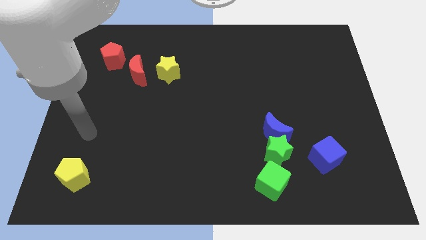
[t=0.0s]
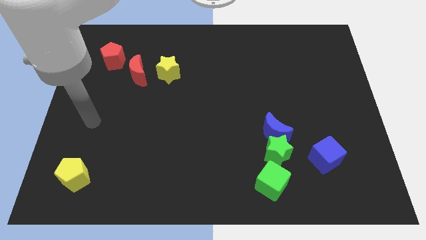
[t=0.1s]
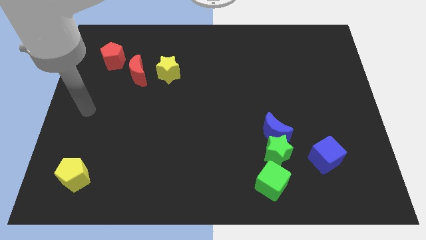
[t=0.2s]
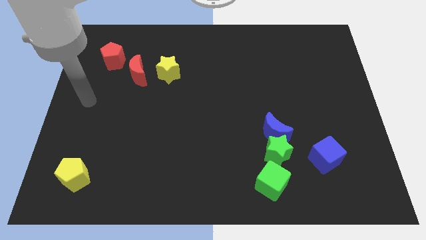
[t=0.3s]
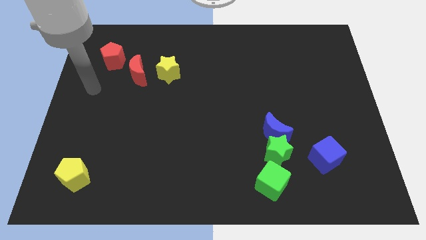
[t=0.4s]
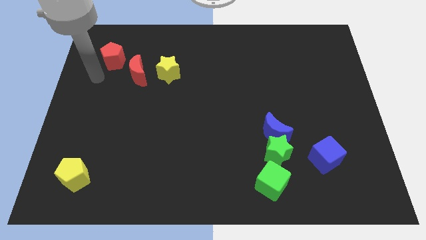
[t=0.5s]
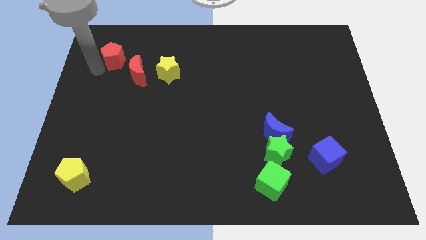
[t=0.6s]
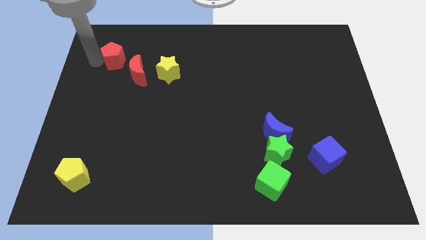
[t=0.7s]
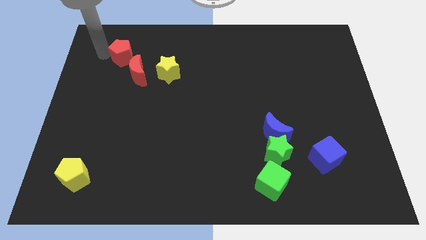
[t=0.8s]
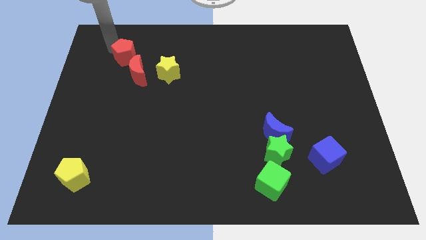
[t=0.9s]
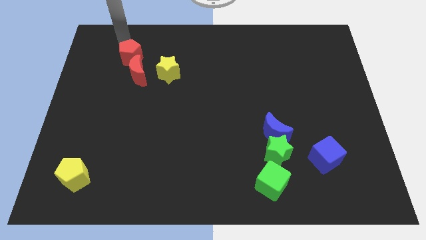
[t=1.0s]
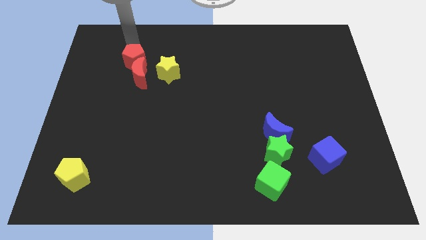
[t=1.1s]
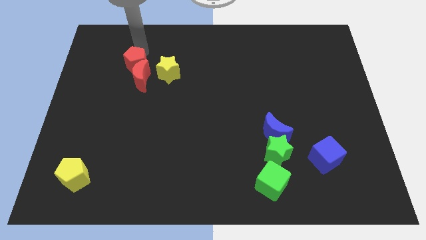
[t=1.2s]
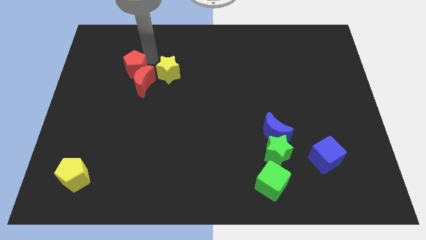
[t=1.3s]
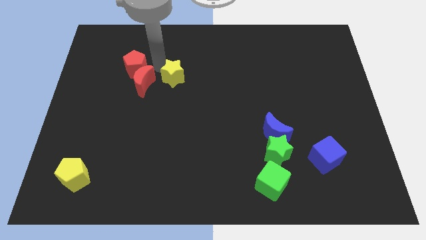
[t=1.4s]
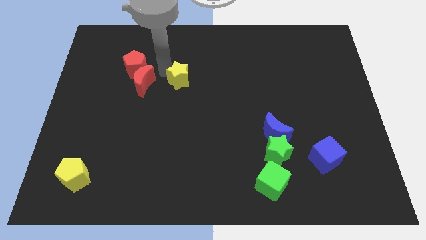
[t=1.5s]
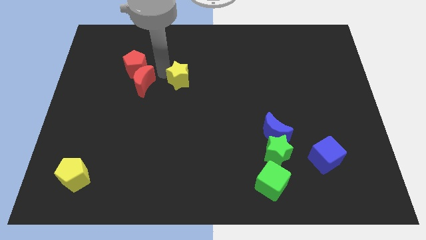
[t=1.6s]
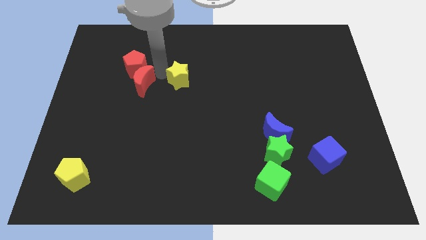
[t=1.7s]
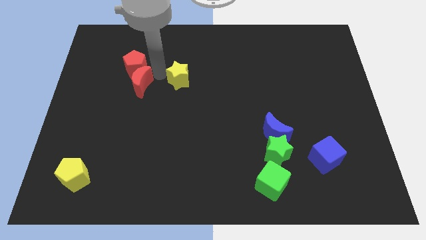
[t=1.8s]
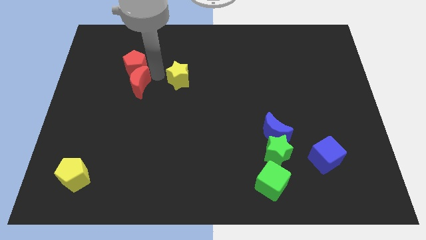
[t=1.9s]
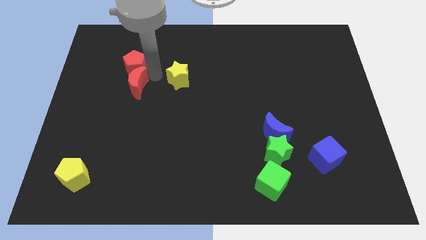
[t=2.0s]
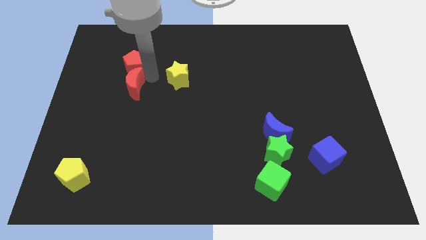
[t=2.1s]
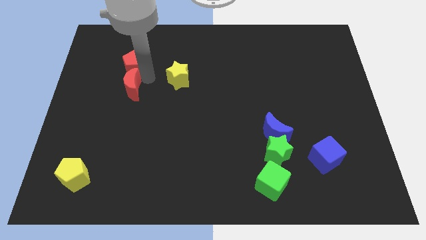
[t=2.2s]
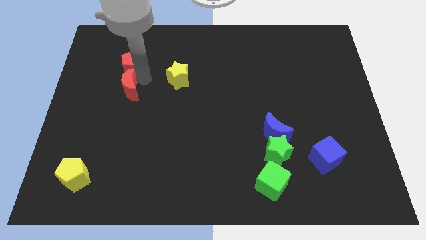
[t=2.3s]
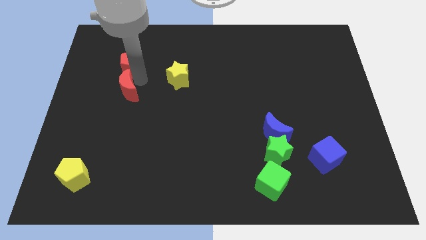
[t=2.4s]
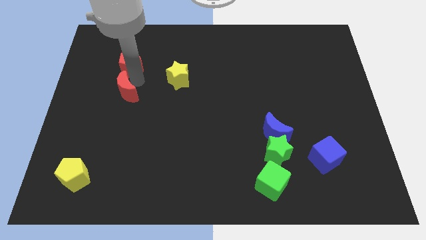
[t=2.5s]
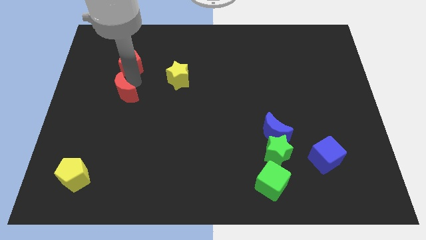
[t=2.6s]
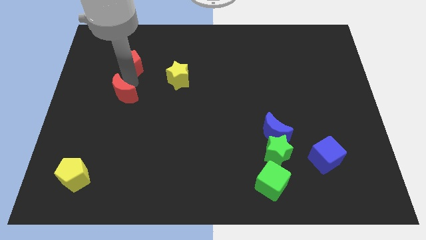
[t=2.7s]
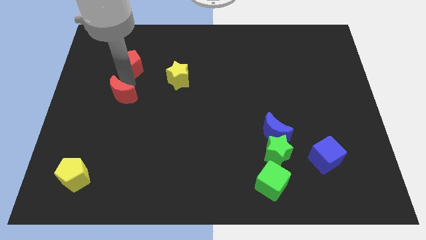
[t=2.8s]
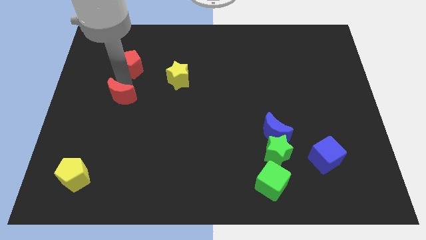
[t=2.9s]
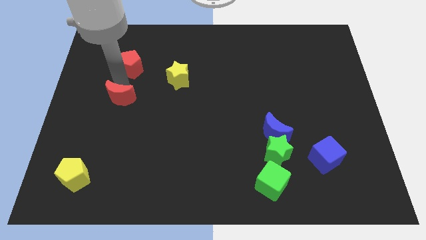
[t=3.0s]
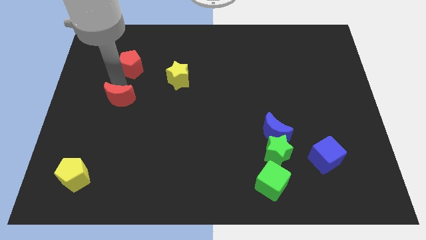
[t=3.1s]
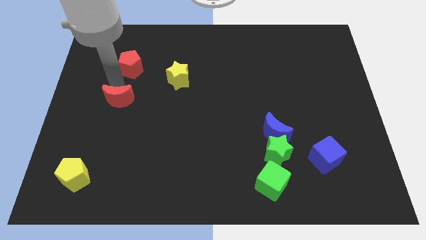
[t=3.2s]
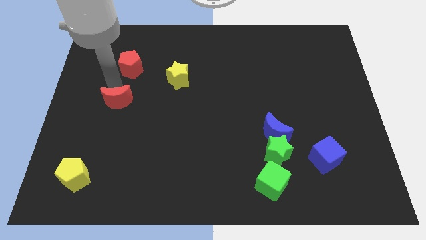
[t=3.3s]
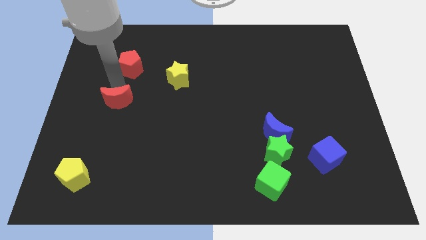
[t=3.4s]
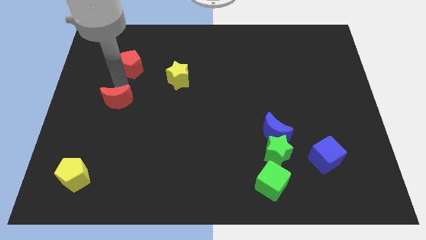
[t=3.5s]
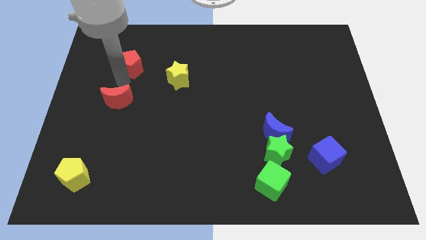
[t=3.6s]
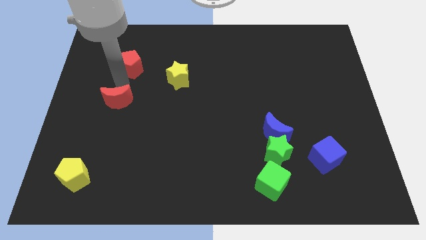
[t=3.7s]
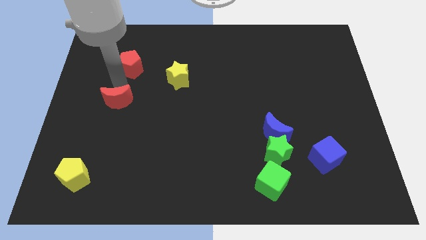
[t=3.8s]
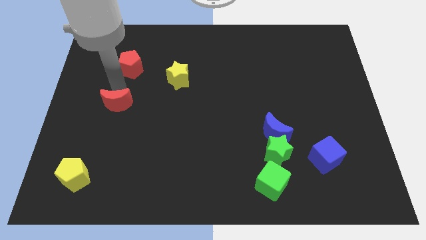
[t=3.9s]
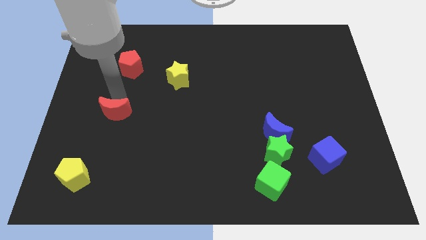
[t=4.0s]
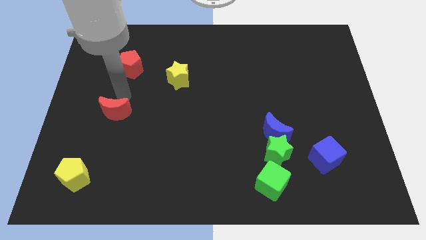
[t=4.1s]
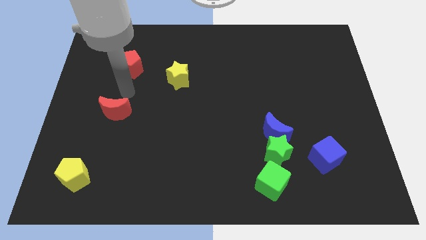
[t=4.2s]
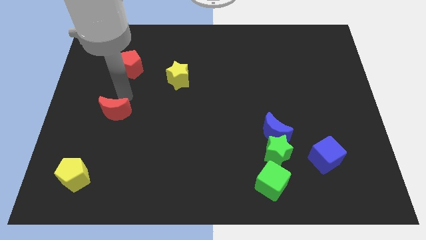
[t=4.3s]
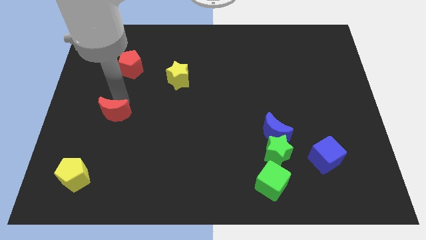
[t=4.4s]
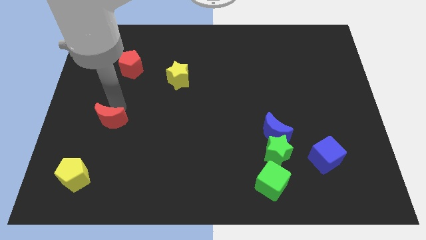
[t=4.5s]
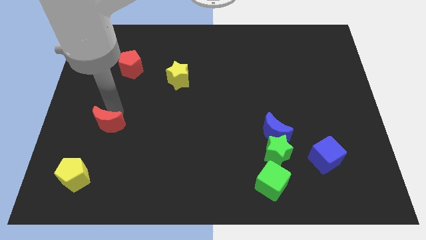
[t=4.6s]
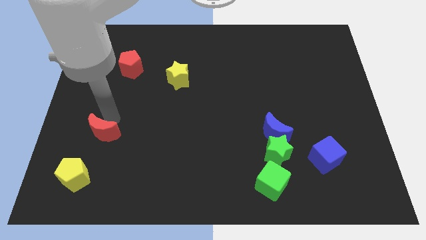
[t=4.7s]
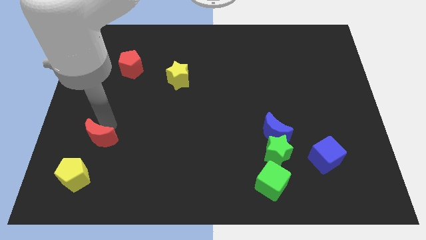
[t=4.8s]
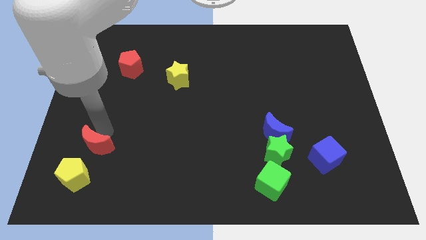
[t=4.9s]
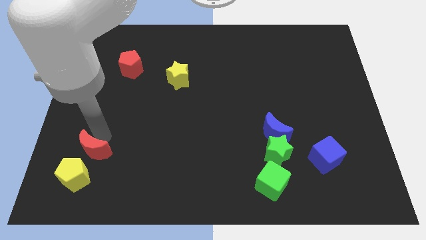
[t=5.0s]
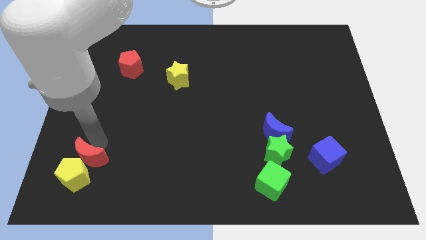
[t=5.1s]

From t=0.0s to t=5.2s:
push the red moon to the yellow pentagon

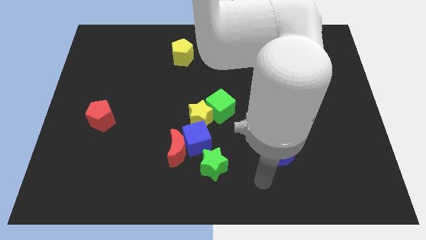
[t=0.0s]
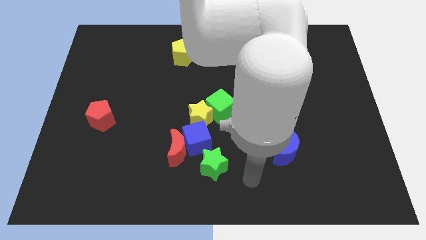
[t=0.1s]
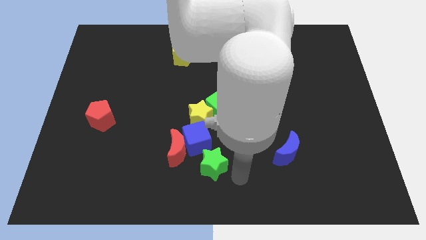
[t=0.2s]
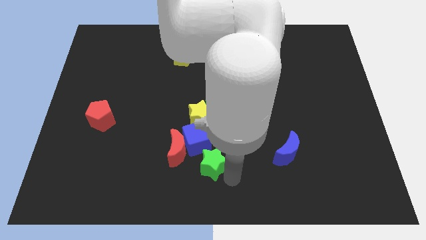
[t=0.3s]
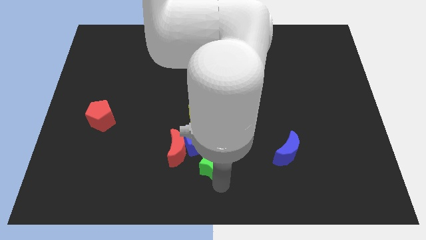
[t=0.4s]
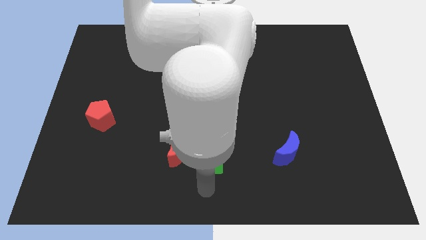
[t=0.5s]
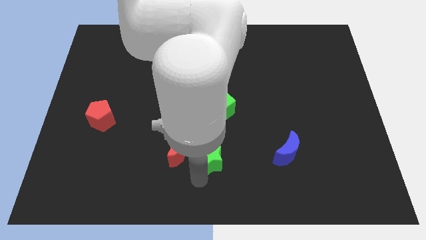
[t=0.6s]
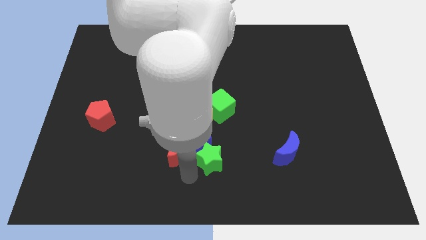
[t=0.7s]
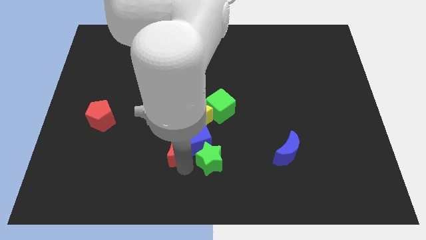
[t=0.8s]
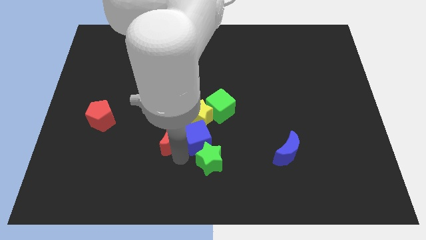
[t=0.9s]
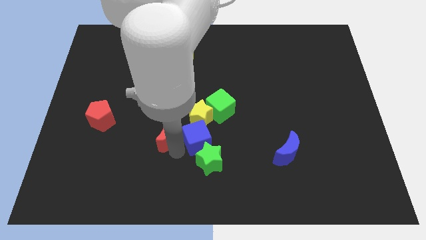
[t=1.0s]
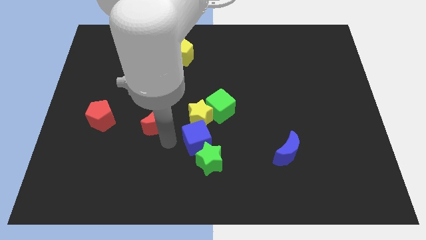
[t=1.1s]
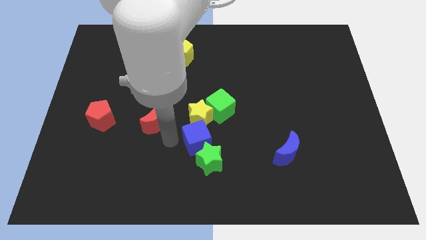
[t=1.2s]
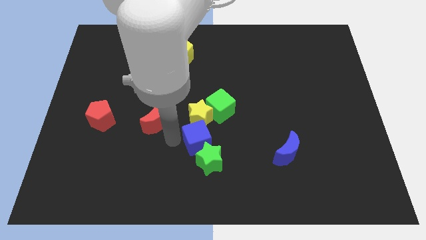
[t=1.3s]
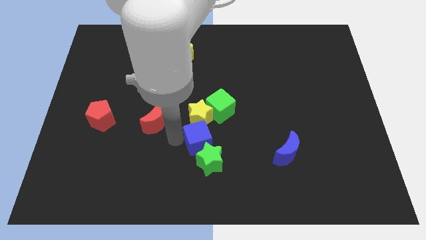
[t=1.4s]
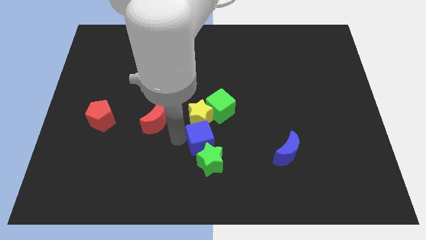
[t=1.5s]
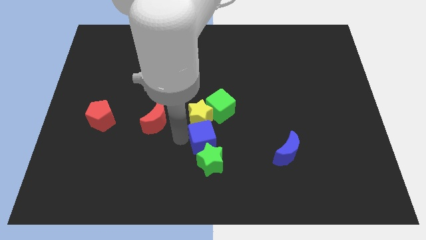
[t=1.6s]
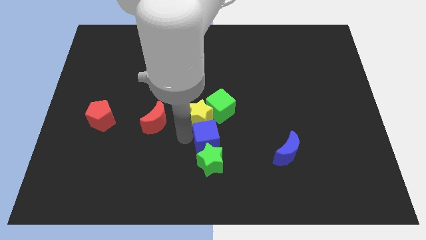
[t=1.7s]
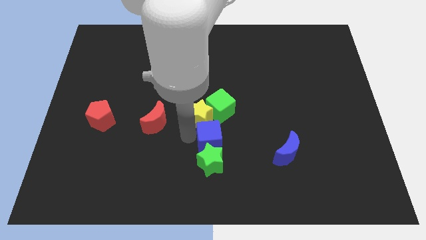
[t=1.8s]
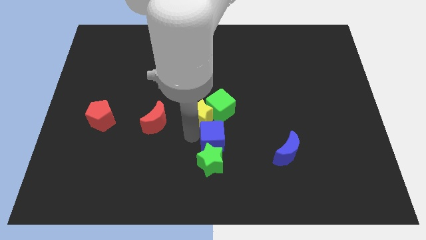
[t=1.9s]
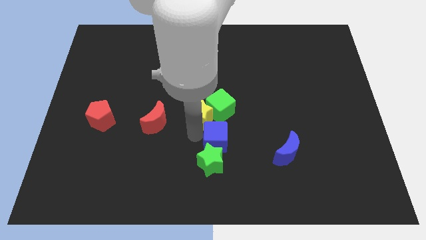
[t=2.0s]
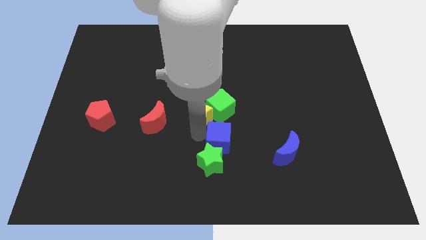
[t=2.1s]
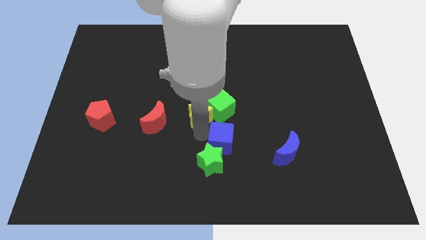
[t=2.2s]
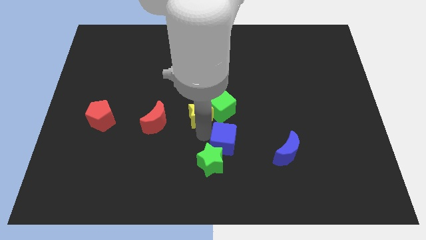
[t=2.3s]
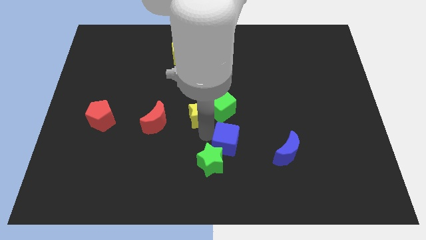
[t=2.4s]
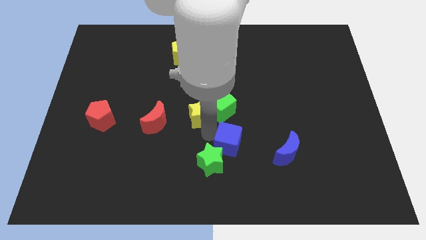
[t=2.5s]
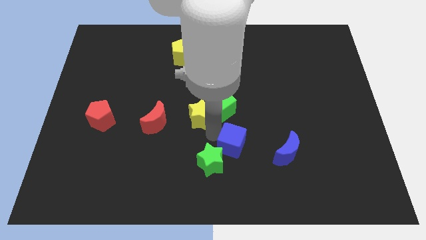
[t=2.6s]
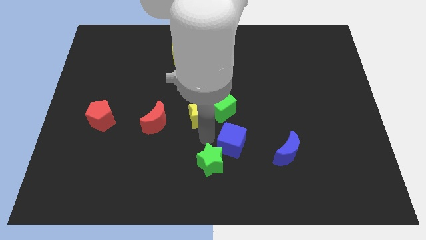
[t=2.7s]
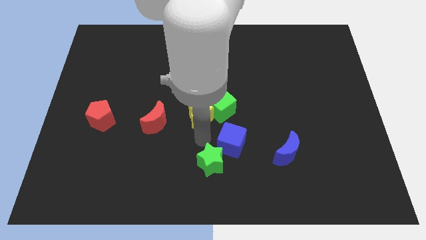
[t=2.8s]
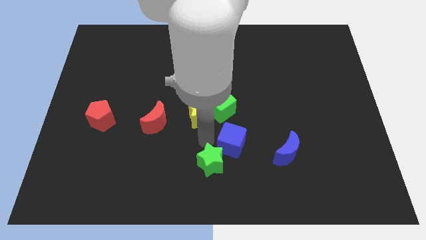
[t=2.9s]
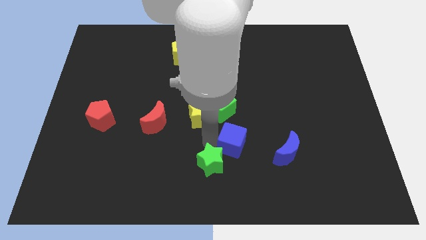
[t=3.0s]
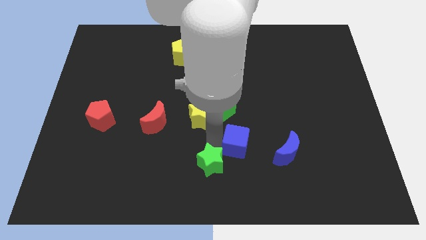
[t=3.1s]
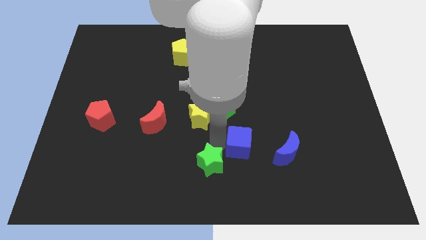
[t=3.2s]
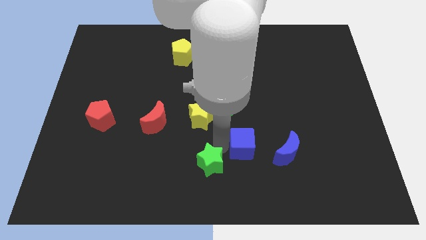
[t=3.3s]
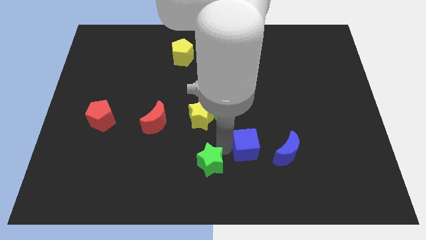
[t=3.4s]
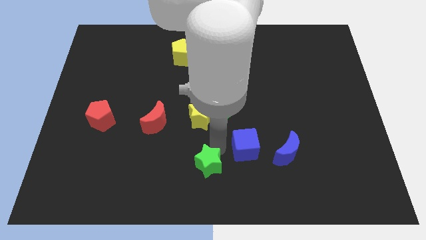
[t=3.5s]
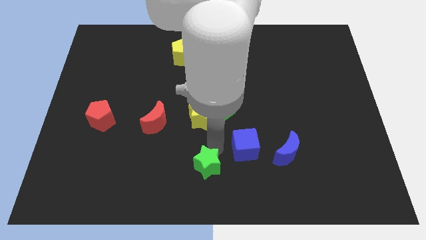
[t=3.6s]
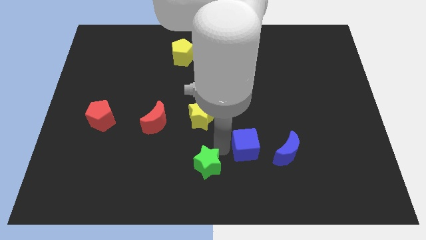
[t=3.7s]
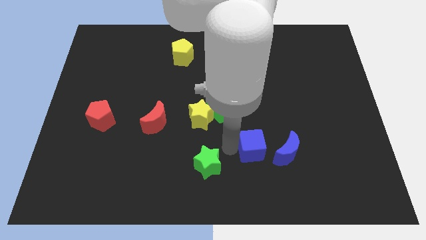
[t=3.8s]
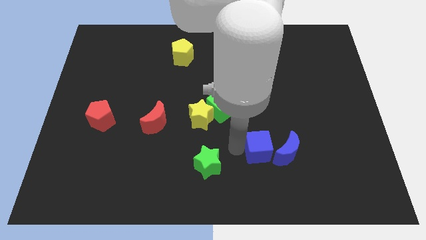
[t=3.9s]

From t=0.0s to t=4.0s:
push the blue cube next to the blue moon
